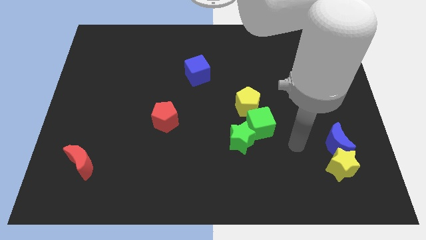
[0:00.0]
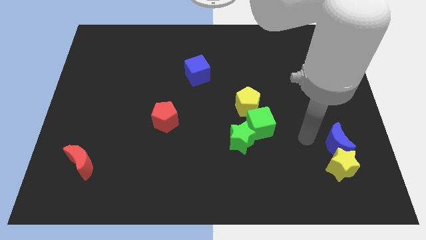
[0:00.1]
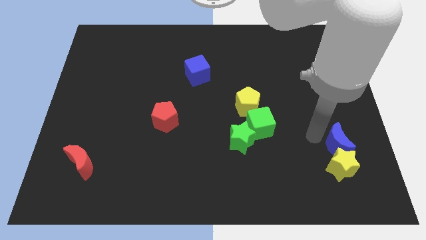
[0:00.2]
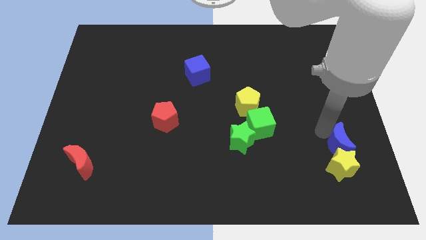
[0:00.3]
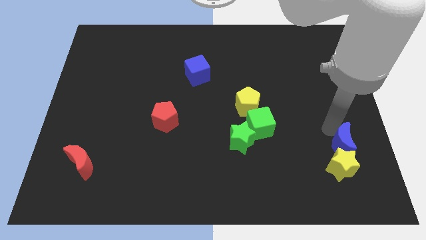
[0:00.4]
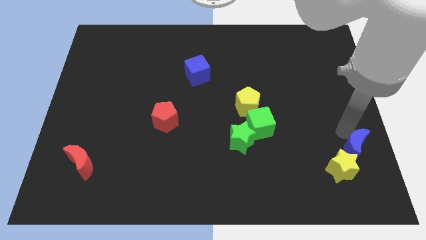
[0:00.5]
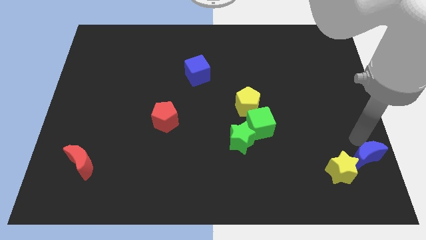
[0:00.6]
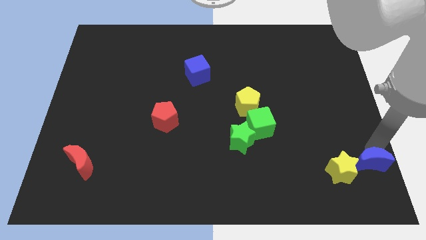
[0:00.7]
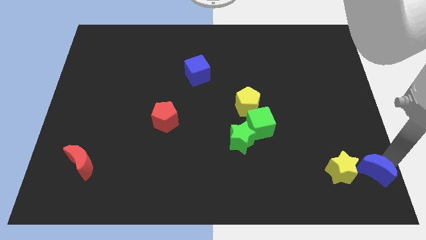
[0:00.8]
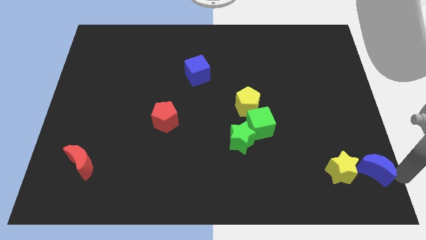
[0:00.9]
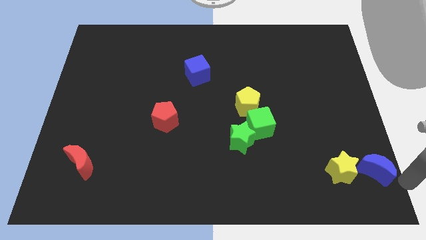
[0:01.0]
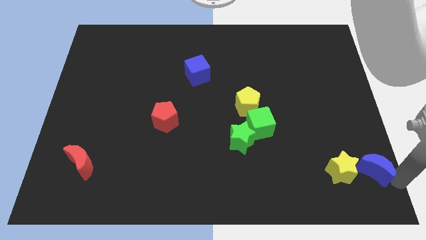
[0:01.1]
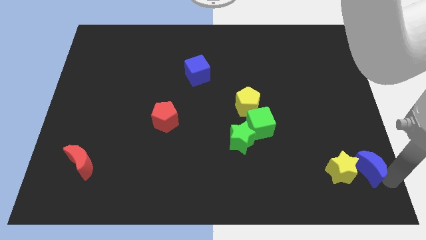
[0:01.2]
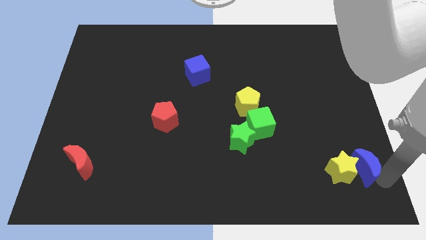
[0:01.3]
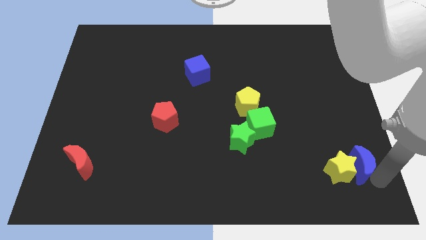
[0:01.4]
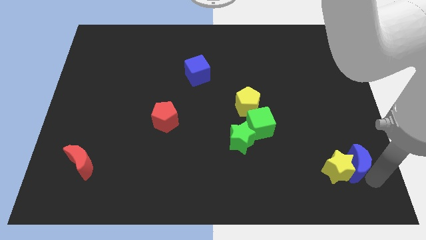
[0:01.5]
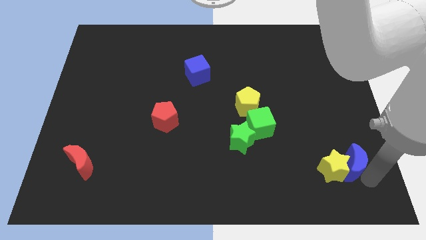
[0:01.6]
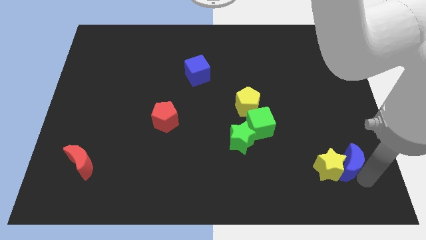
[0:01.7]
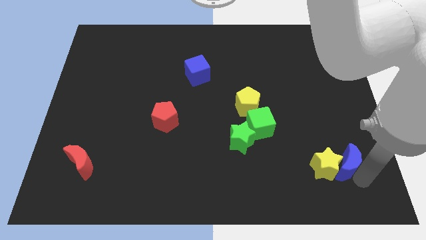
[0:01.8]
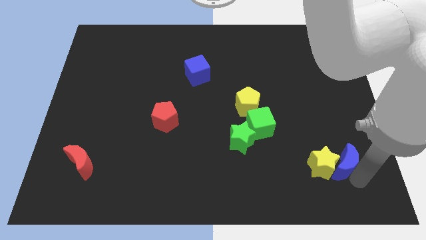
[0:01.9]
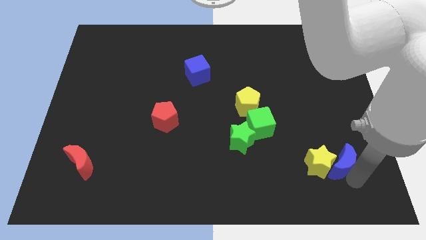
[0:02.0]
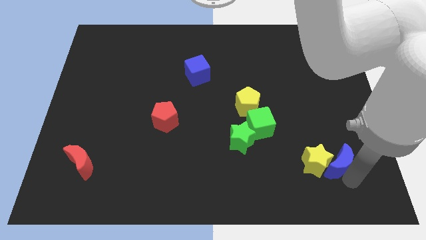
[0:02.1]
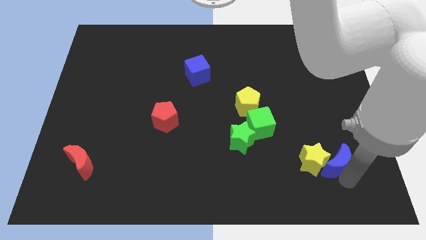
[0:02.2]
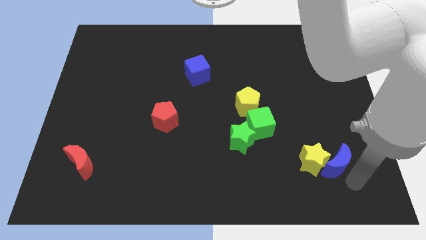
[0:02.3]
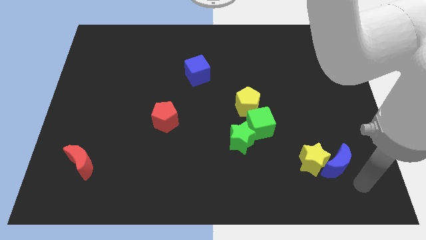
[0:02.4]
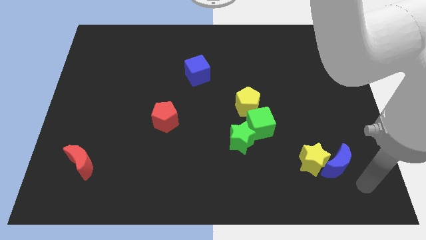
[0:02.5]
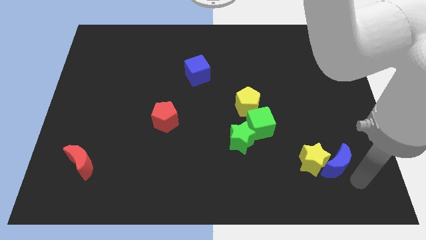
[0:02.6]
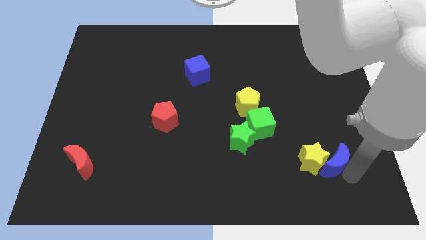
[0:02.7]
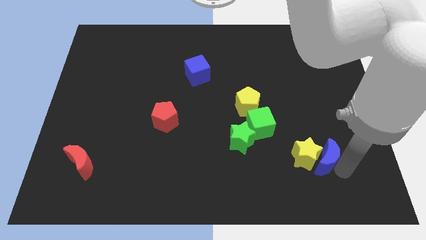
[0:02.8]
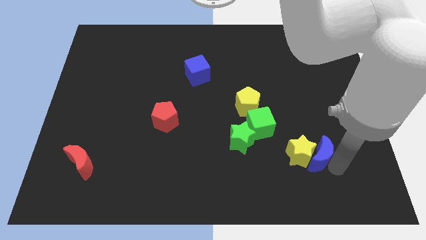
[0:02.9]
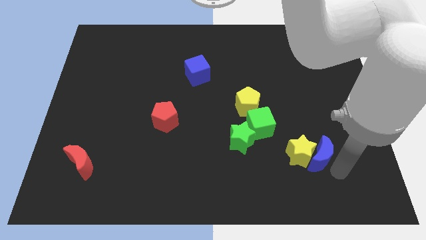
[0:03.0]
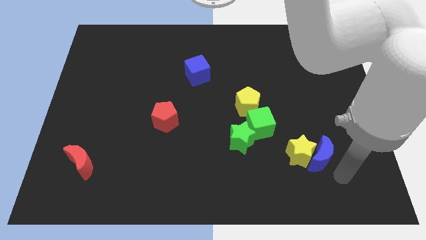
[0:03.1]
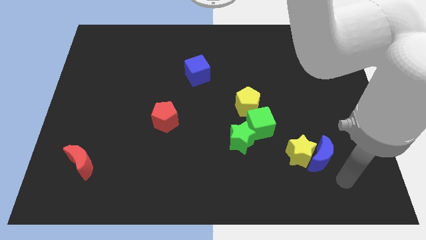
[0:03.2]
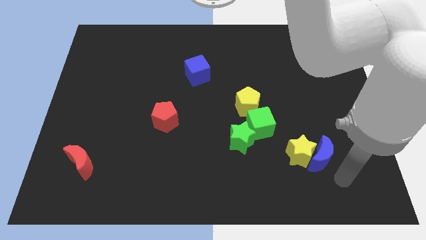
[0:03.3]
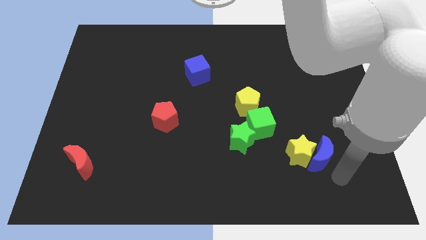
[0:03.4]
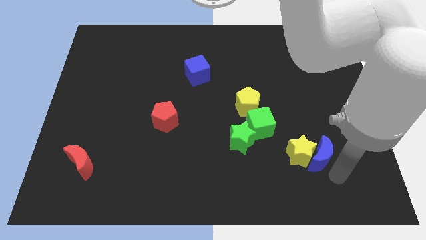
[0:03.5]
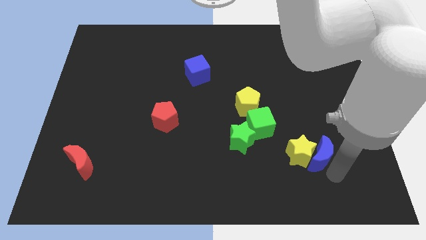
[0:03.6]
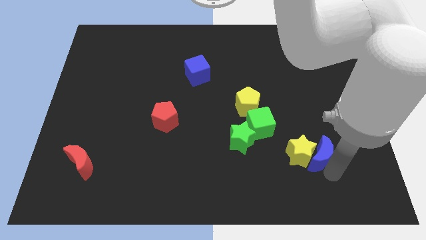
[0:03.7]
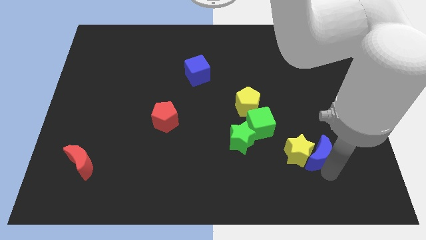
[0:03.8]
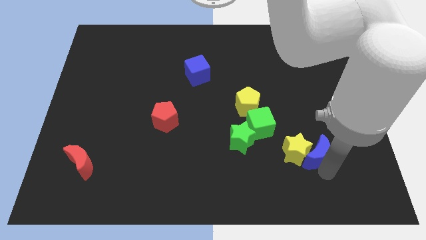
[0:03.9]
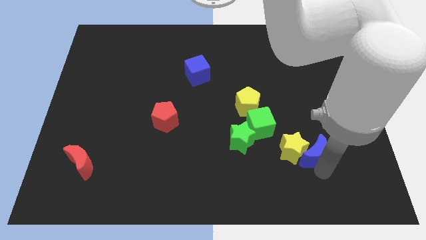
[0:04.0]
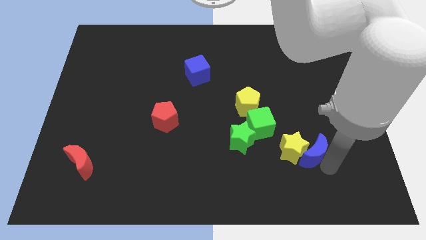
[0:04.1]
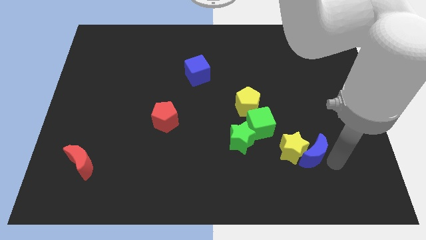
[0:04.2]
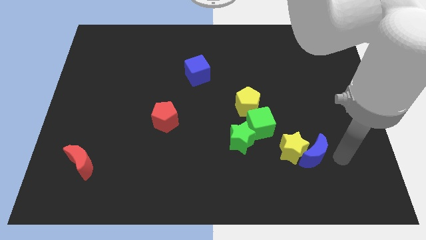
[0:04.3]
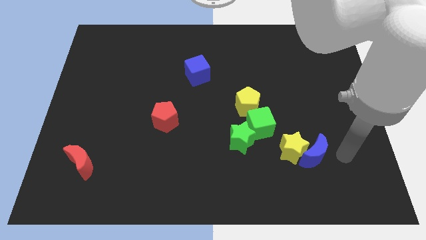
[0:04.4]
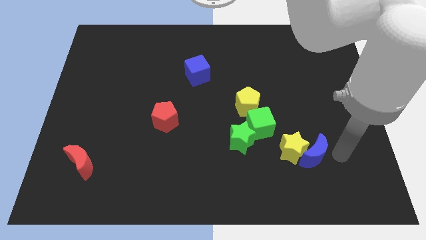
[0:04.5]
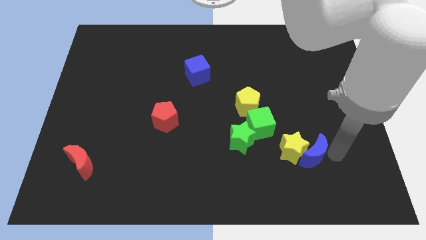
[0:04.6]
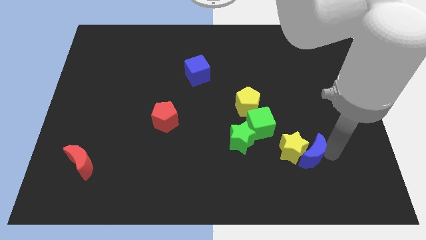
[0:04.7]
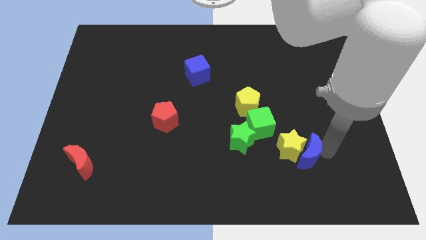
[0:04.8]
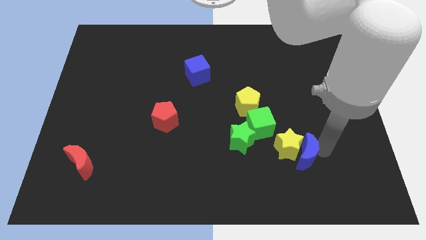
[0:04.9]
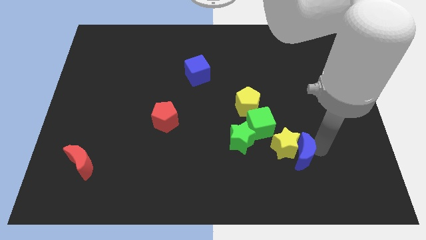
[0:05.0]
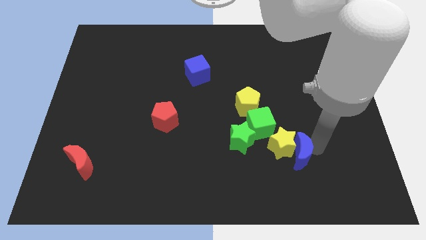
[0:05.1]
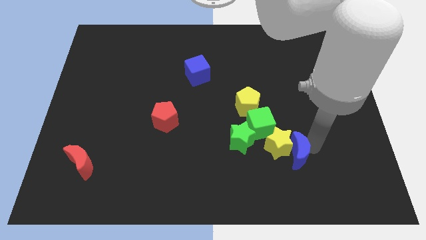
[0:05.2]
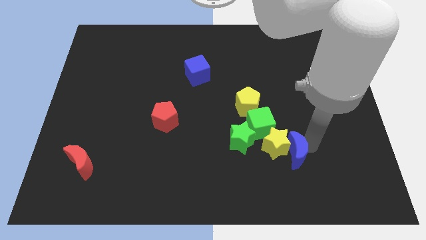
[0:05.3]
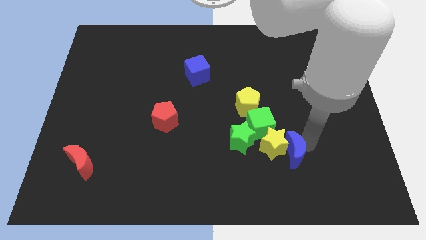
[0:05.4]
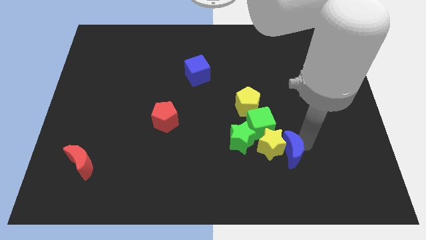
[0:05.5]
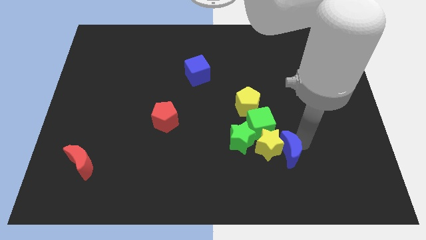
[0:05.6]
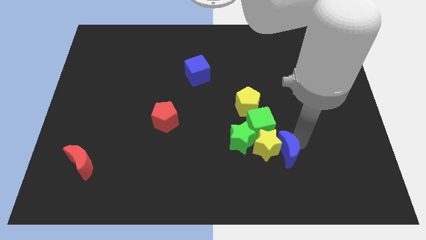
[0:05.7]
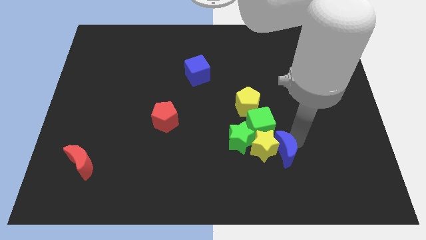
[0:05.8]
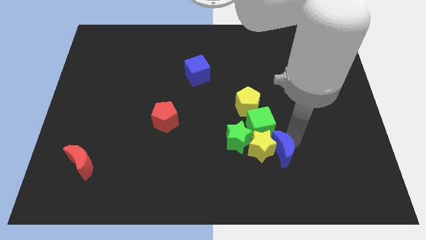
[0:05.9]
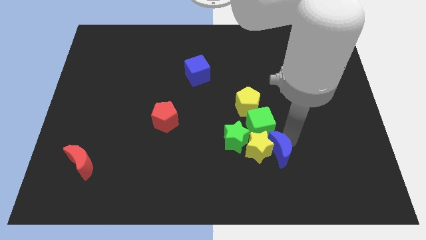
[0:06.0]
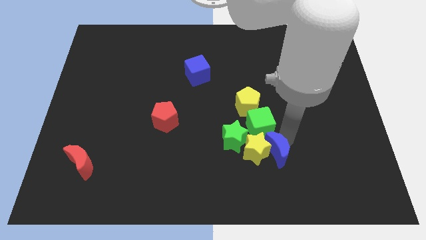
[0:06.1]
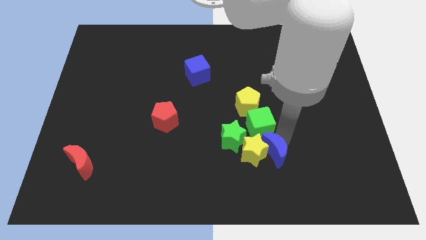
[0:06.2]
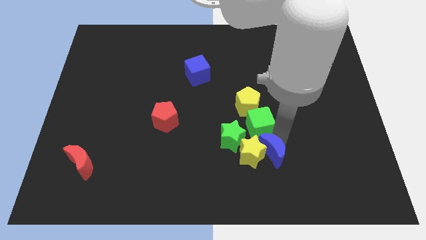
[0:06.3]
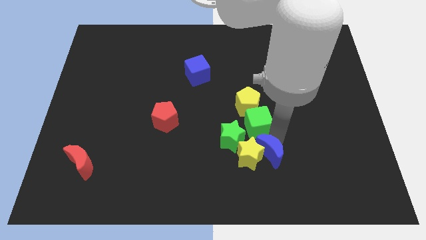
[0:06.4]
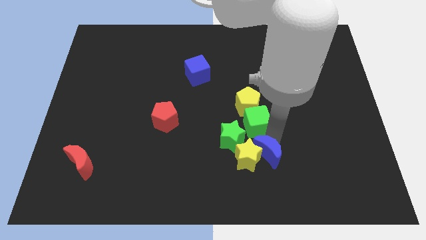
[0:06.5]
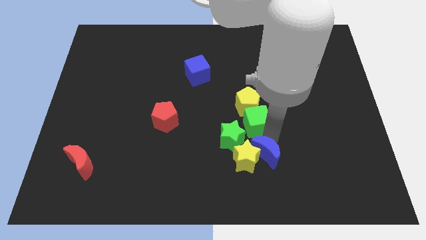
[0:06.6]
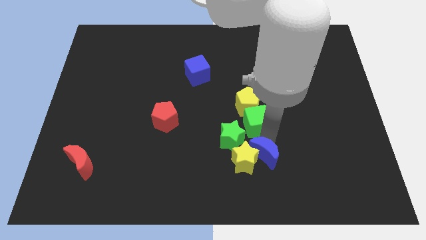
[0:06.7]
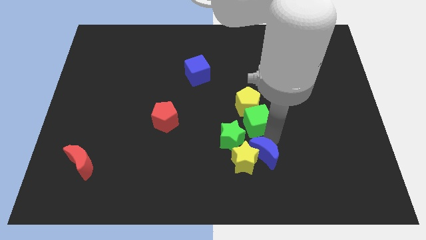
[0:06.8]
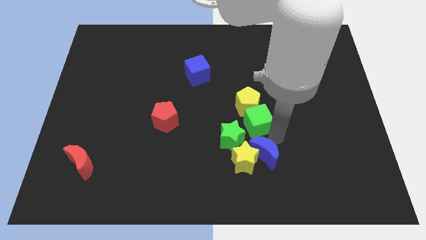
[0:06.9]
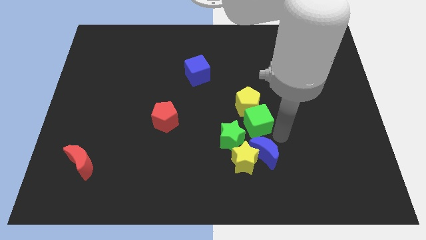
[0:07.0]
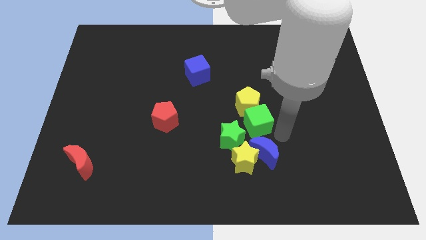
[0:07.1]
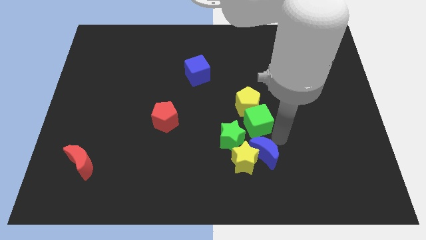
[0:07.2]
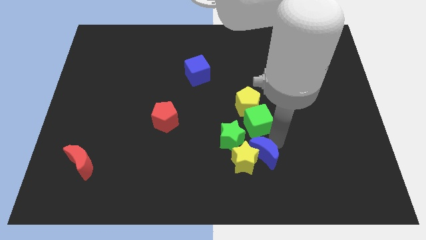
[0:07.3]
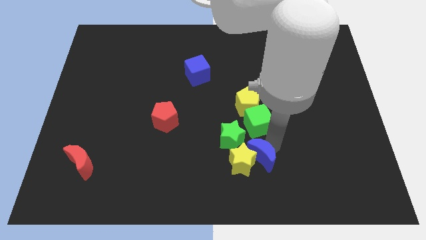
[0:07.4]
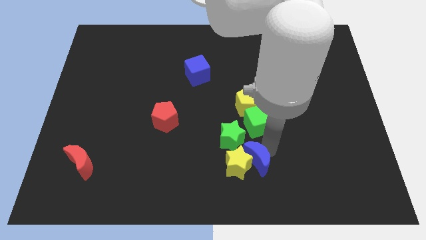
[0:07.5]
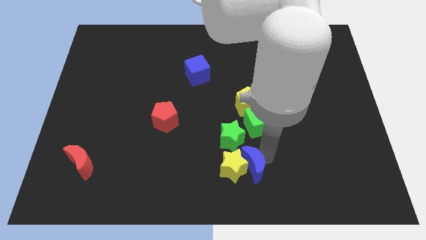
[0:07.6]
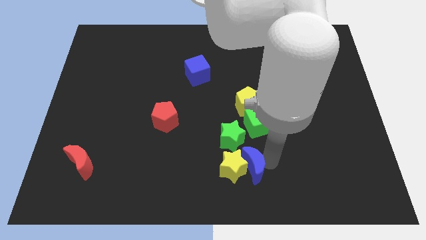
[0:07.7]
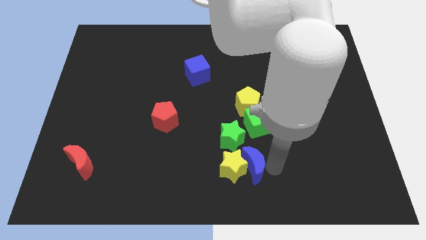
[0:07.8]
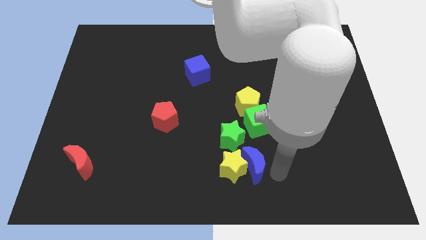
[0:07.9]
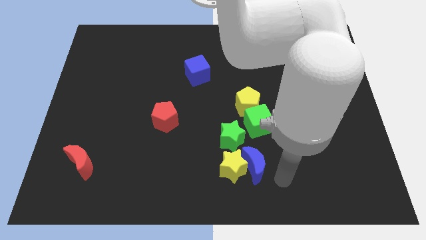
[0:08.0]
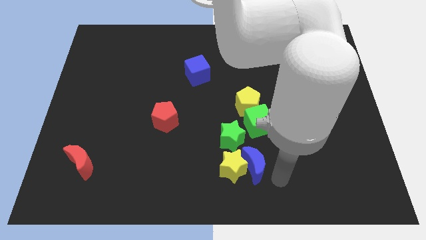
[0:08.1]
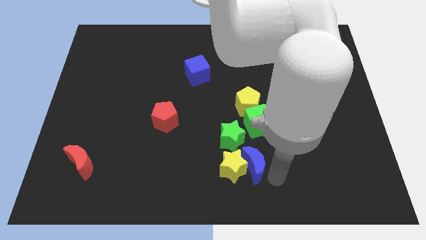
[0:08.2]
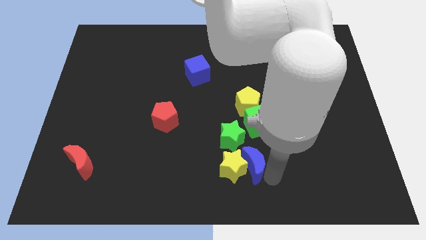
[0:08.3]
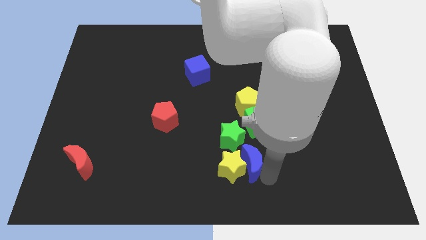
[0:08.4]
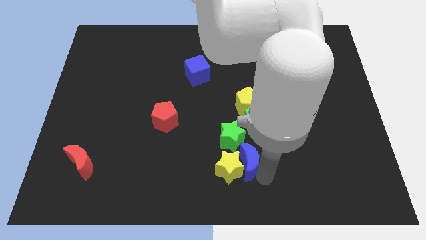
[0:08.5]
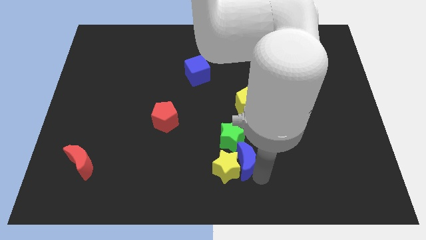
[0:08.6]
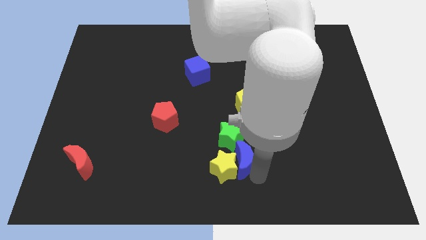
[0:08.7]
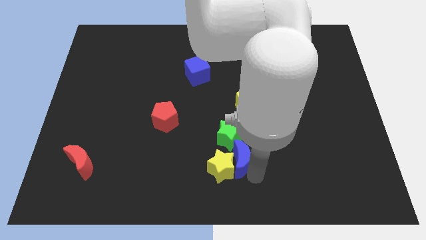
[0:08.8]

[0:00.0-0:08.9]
slide the blue moon left
